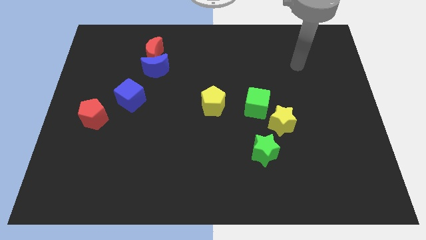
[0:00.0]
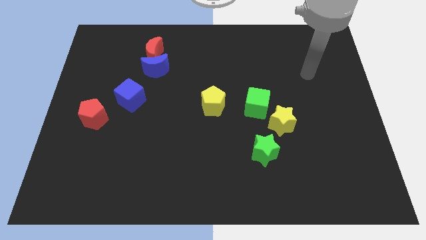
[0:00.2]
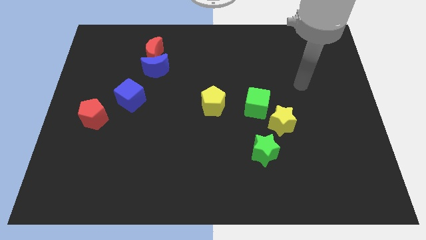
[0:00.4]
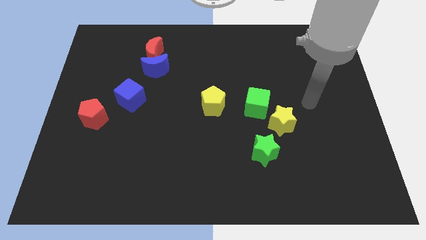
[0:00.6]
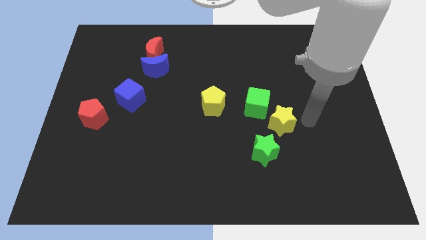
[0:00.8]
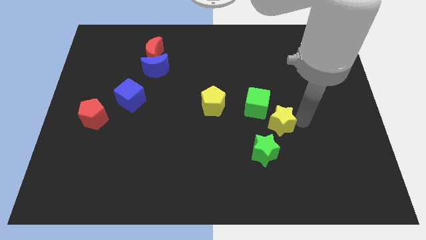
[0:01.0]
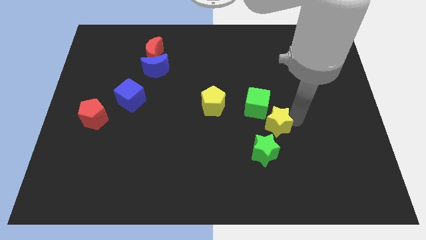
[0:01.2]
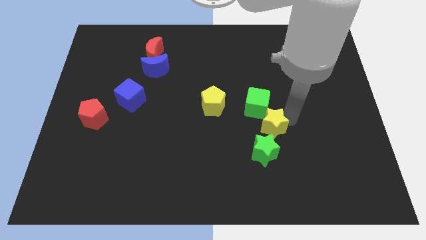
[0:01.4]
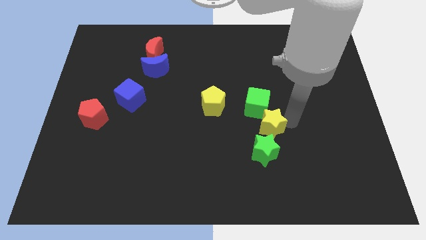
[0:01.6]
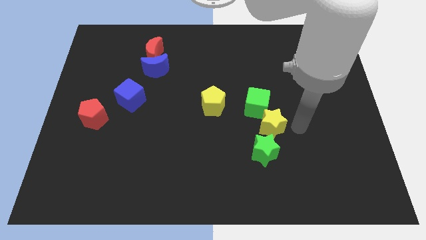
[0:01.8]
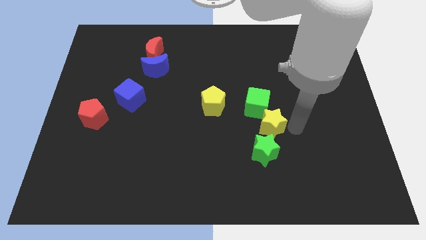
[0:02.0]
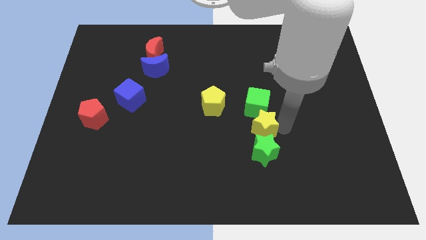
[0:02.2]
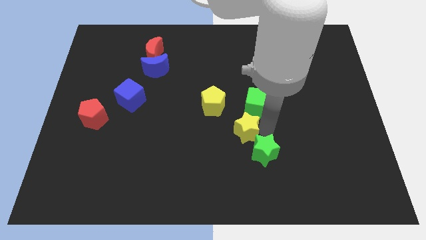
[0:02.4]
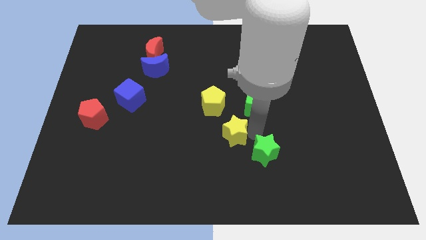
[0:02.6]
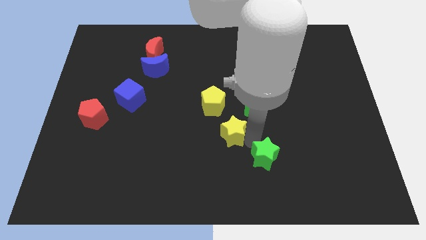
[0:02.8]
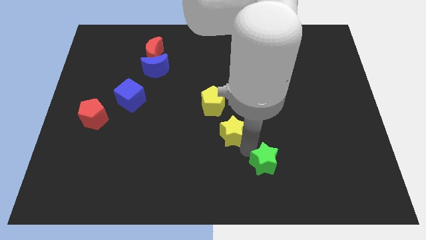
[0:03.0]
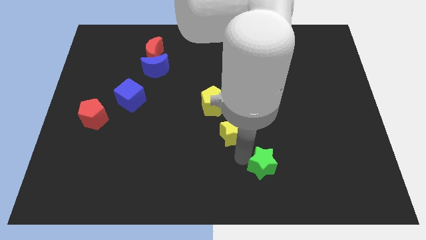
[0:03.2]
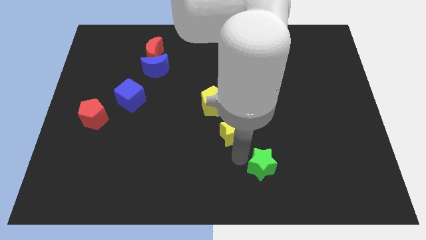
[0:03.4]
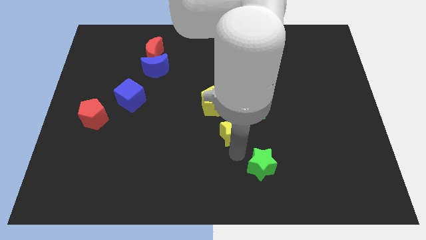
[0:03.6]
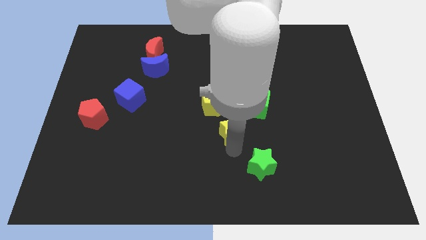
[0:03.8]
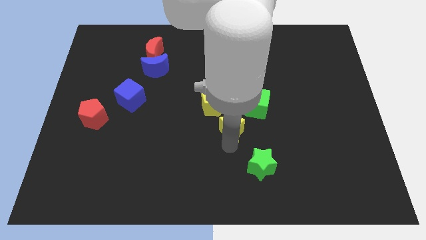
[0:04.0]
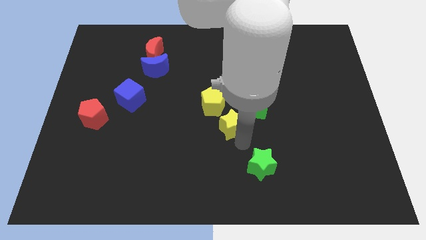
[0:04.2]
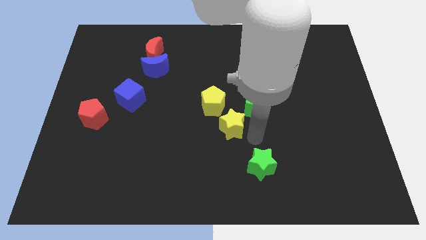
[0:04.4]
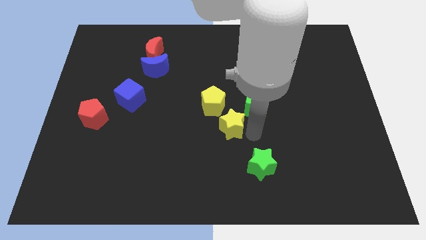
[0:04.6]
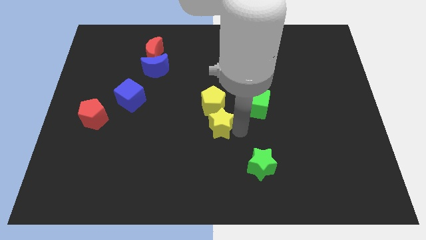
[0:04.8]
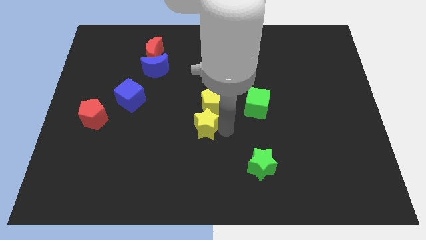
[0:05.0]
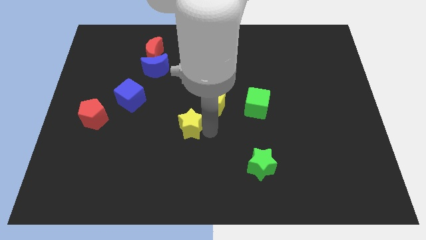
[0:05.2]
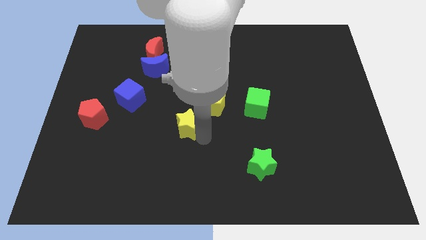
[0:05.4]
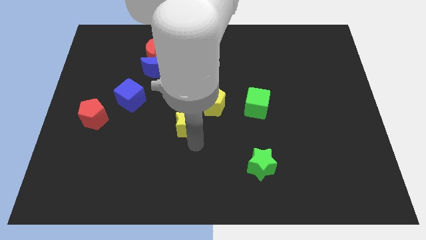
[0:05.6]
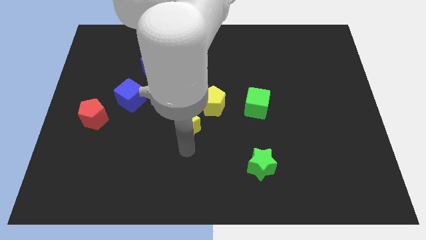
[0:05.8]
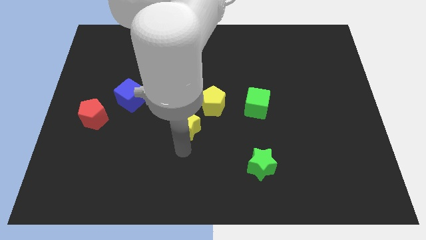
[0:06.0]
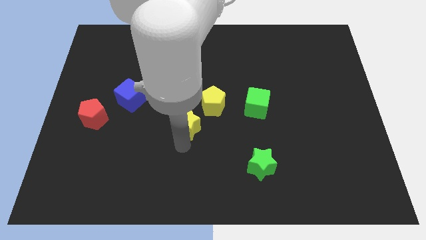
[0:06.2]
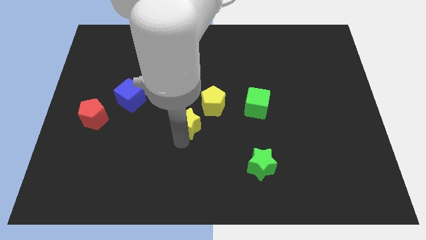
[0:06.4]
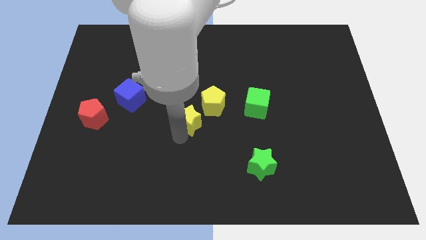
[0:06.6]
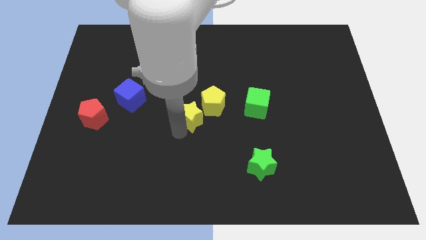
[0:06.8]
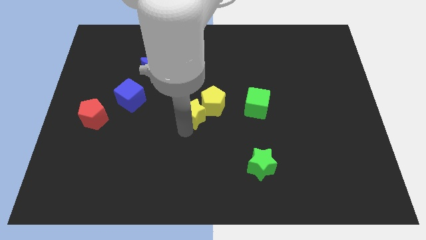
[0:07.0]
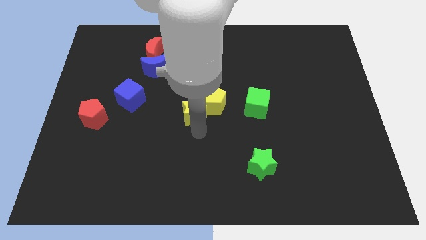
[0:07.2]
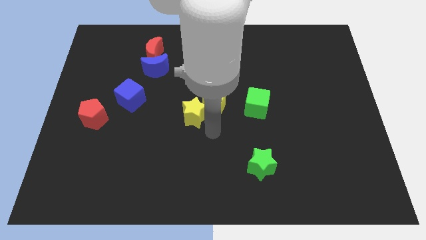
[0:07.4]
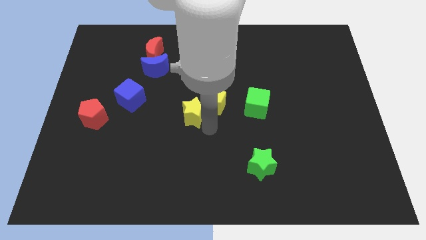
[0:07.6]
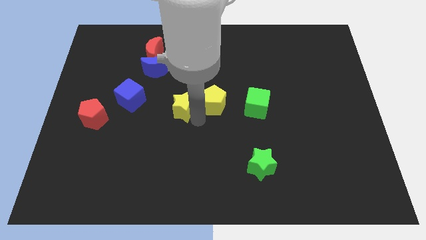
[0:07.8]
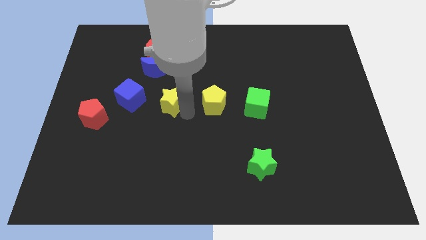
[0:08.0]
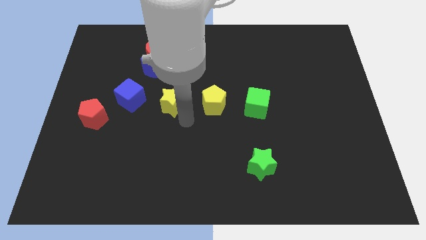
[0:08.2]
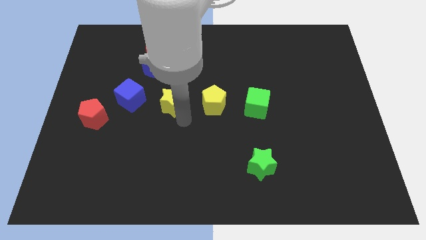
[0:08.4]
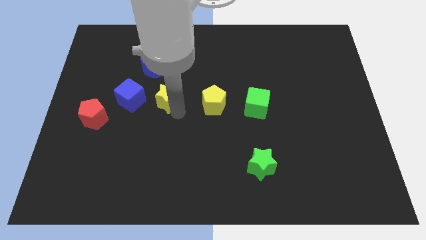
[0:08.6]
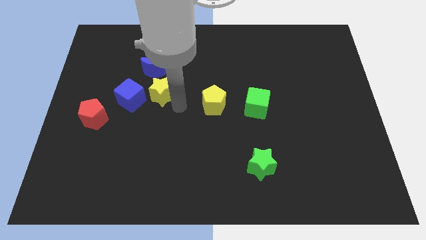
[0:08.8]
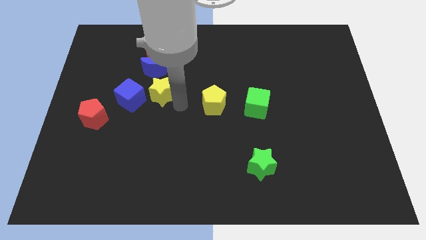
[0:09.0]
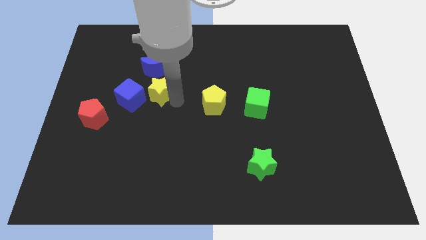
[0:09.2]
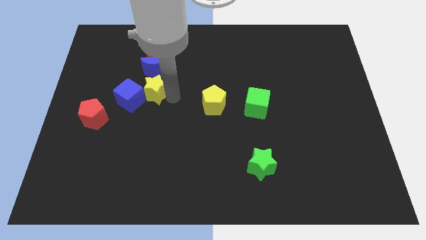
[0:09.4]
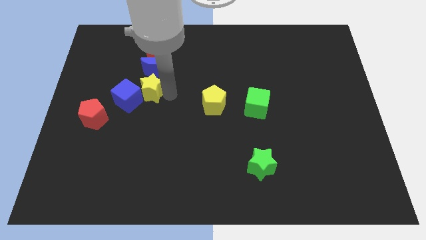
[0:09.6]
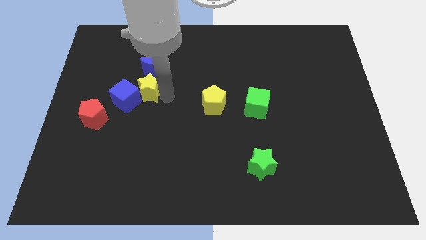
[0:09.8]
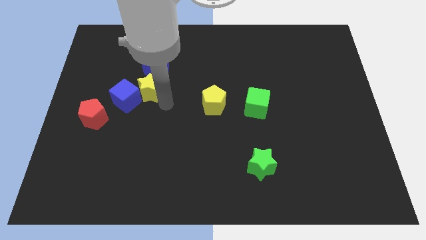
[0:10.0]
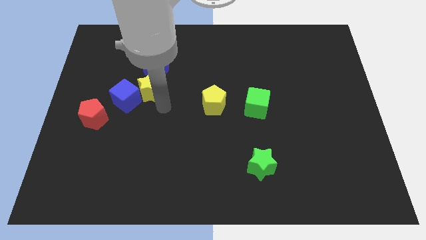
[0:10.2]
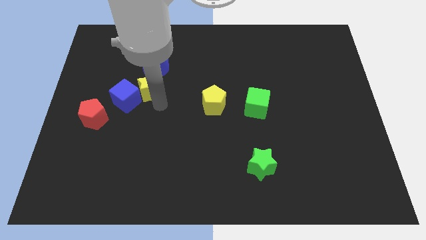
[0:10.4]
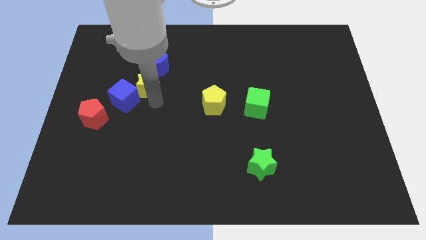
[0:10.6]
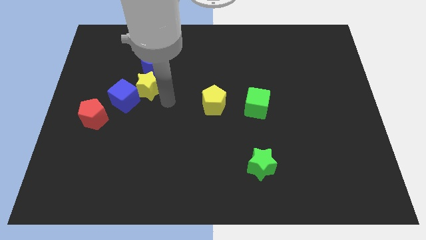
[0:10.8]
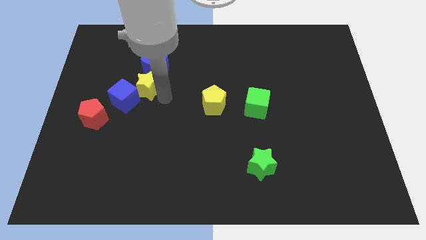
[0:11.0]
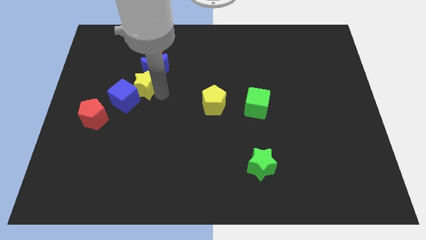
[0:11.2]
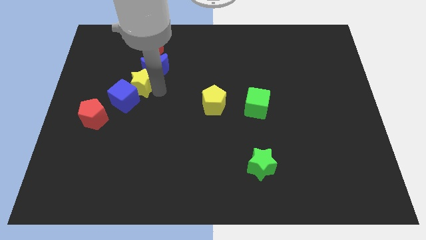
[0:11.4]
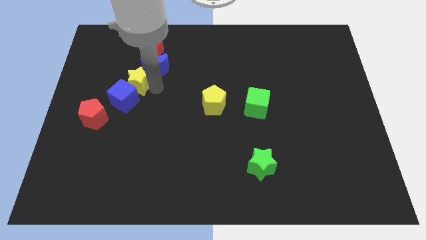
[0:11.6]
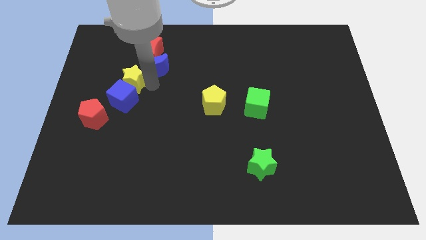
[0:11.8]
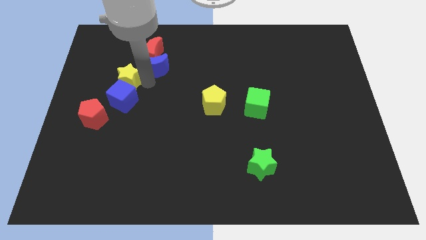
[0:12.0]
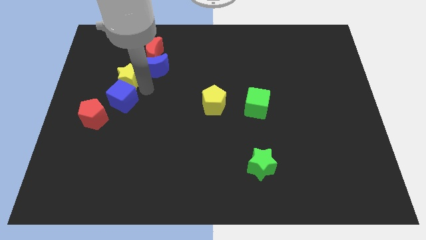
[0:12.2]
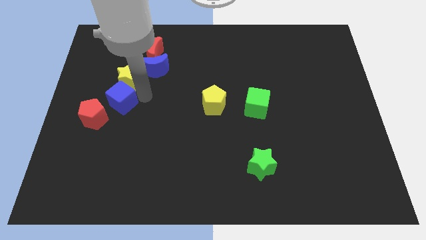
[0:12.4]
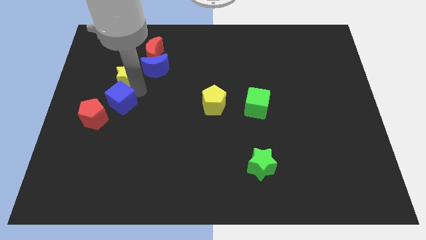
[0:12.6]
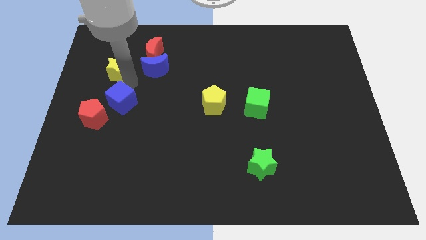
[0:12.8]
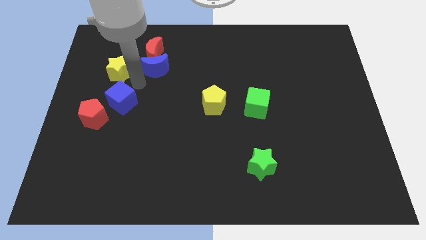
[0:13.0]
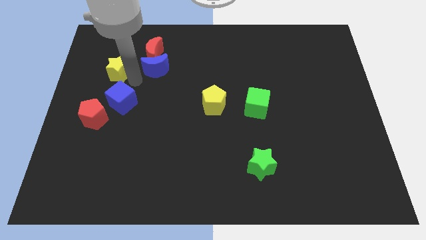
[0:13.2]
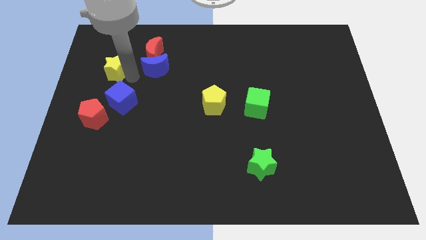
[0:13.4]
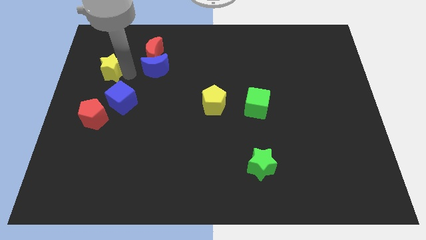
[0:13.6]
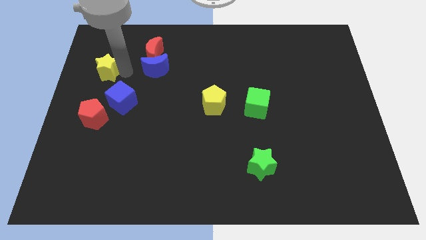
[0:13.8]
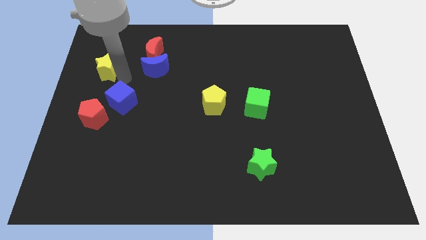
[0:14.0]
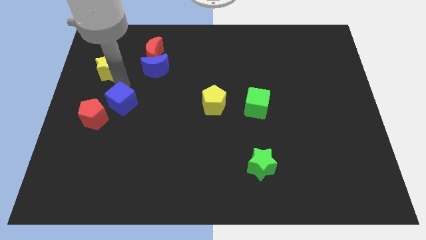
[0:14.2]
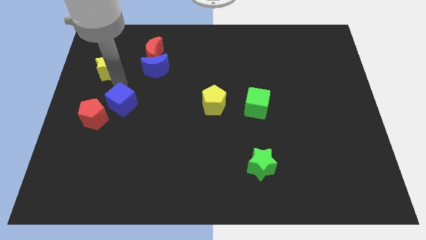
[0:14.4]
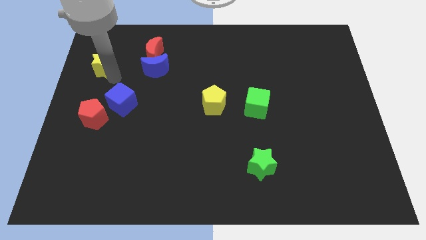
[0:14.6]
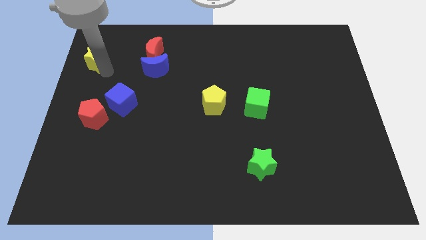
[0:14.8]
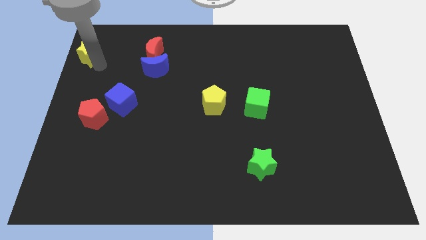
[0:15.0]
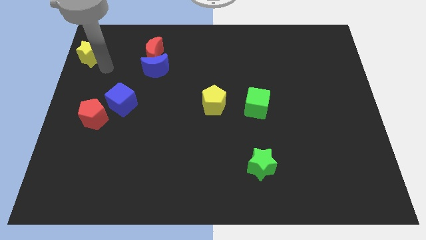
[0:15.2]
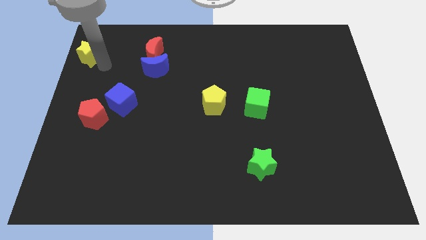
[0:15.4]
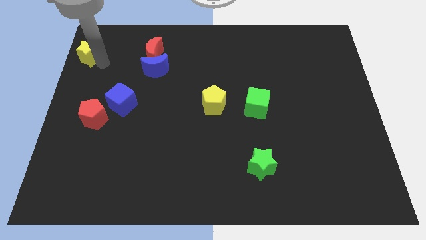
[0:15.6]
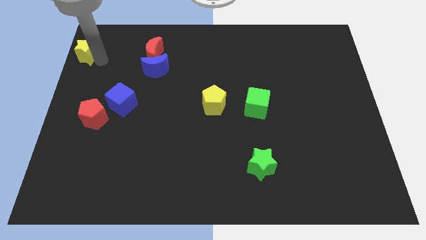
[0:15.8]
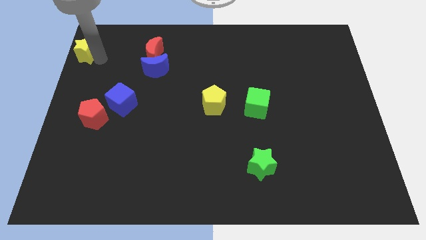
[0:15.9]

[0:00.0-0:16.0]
push the yellow star to the top left
